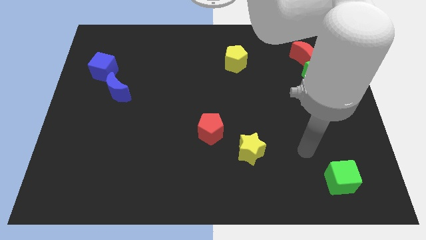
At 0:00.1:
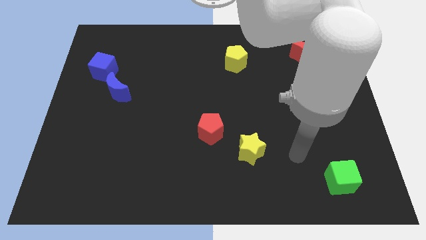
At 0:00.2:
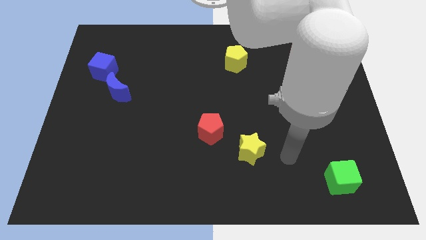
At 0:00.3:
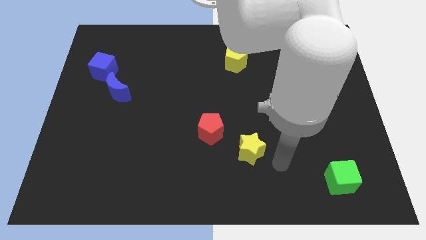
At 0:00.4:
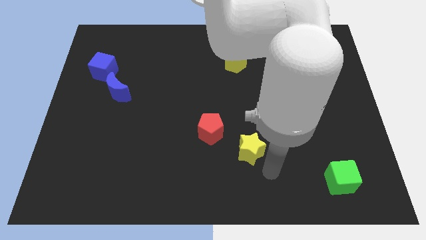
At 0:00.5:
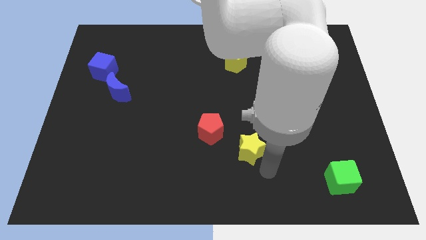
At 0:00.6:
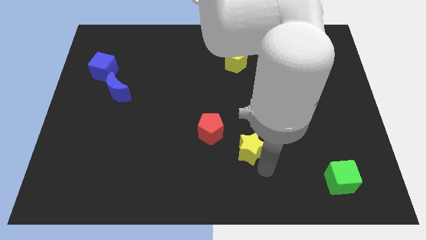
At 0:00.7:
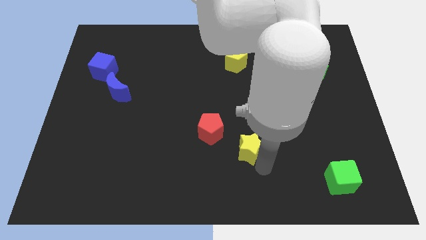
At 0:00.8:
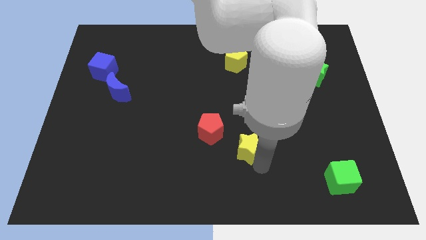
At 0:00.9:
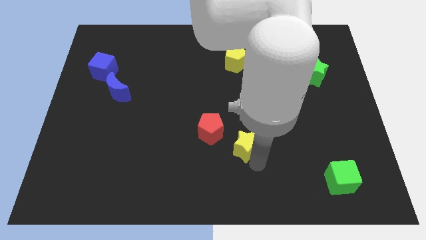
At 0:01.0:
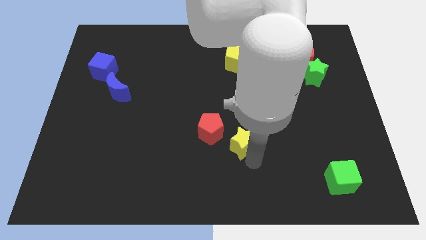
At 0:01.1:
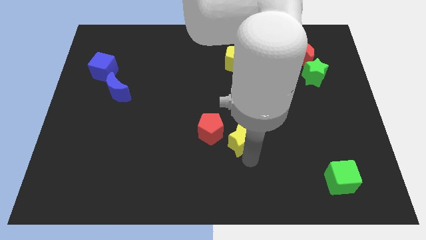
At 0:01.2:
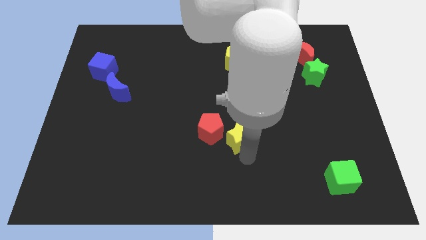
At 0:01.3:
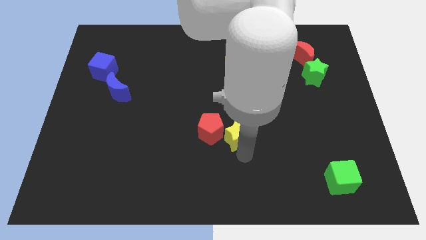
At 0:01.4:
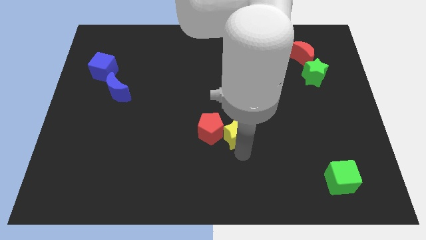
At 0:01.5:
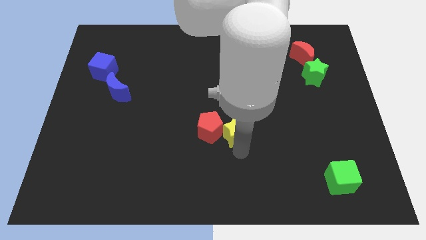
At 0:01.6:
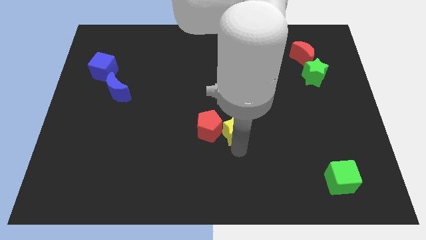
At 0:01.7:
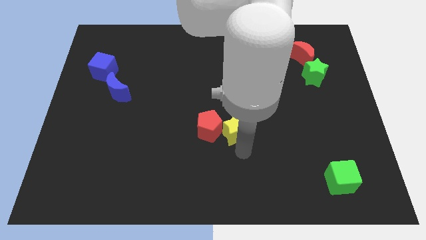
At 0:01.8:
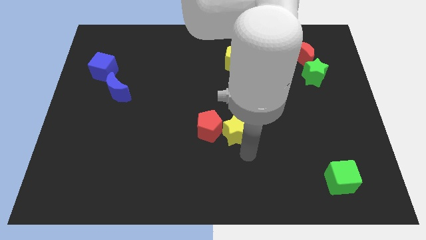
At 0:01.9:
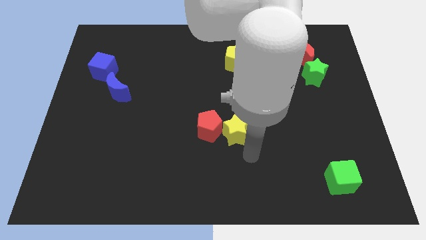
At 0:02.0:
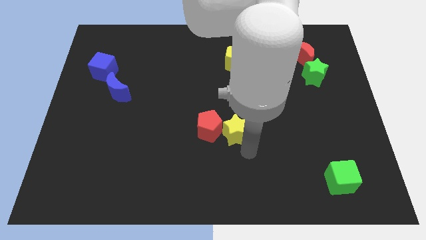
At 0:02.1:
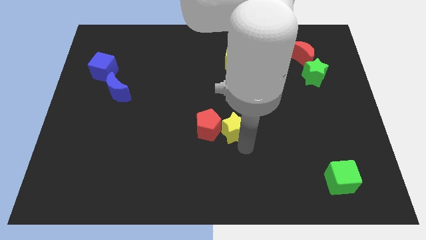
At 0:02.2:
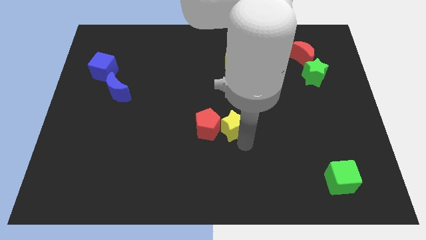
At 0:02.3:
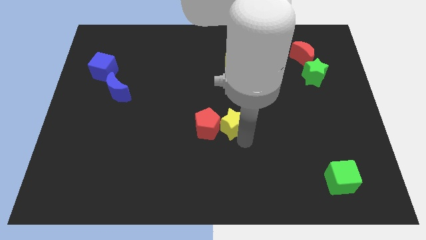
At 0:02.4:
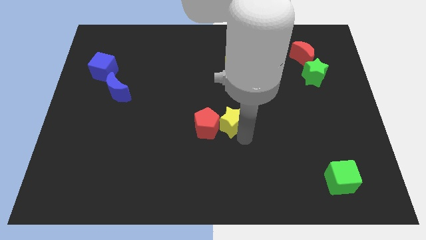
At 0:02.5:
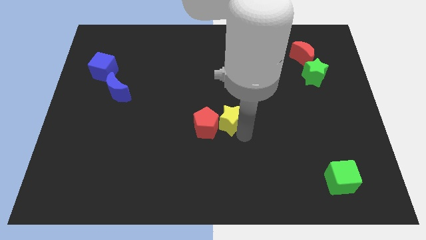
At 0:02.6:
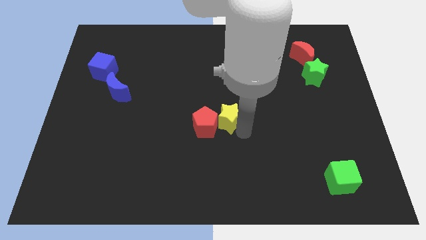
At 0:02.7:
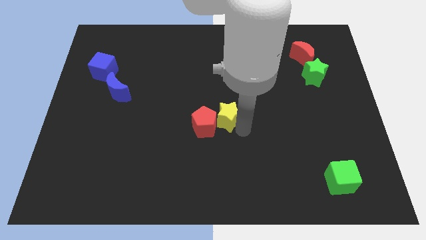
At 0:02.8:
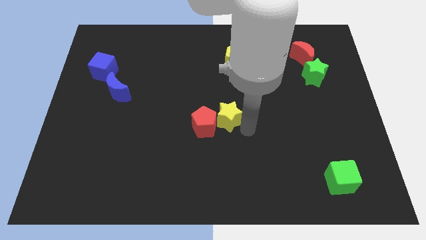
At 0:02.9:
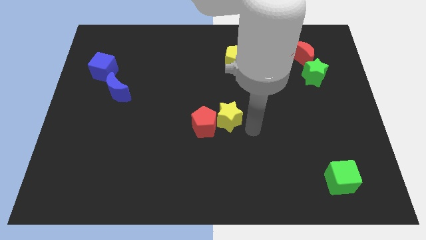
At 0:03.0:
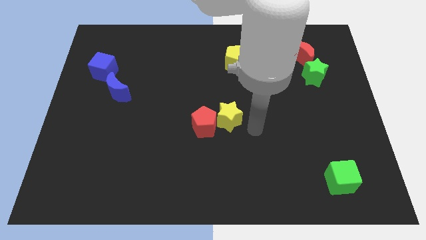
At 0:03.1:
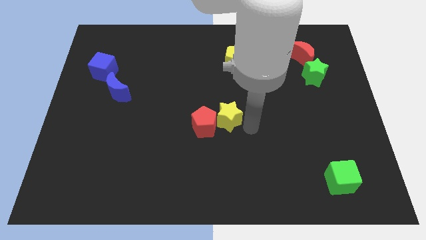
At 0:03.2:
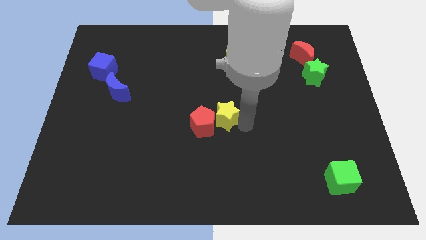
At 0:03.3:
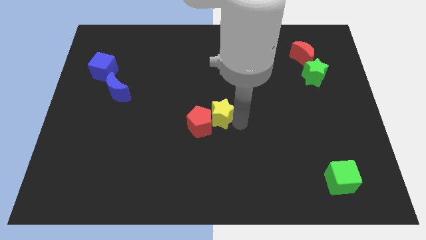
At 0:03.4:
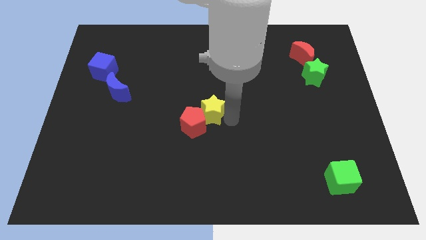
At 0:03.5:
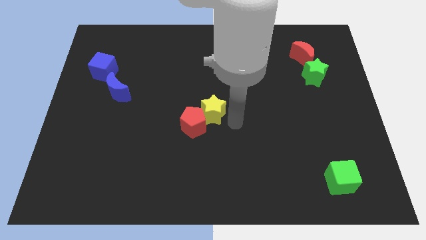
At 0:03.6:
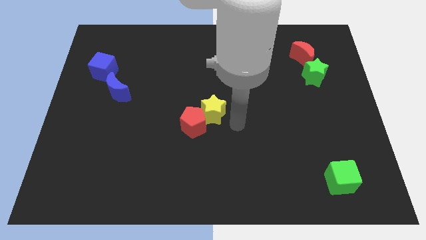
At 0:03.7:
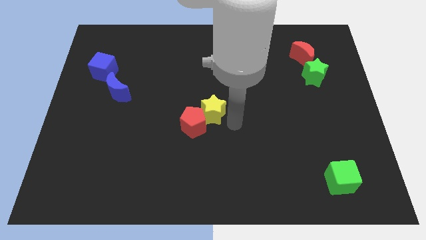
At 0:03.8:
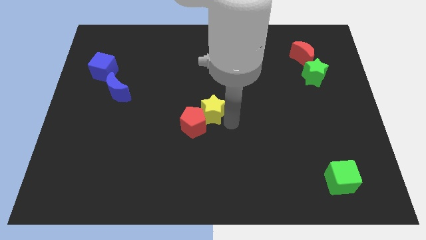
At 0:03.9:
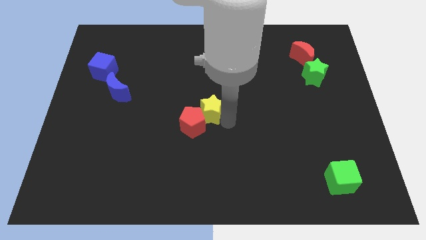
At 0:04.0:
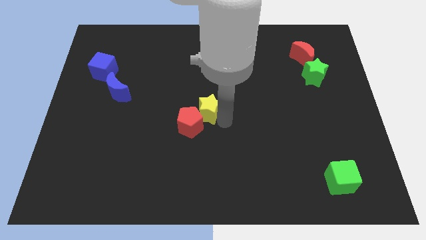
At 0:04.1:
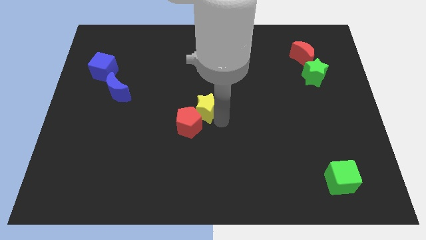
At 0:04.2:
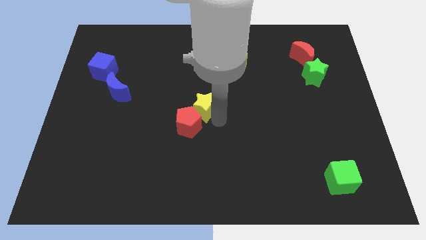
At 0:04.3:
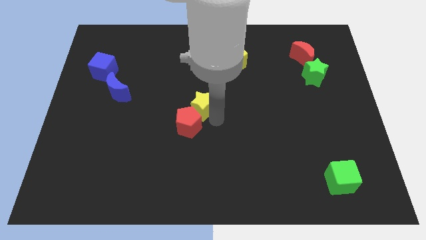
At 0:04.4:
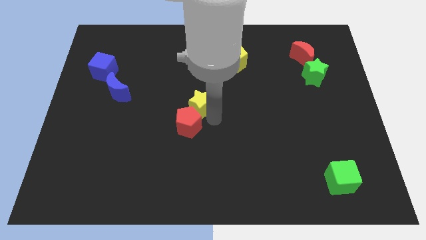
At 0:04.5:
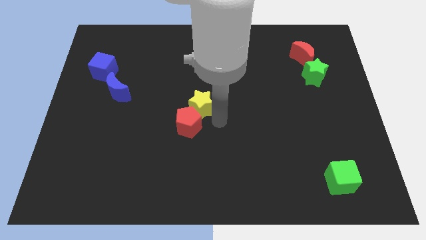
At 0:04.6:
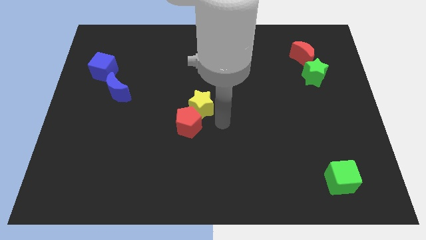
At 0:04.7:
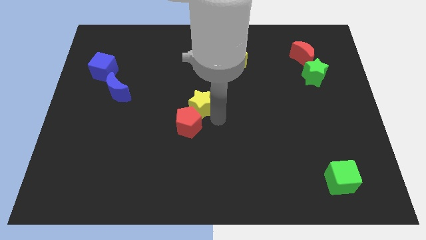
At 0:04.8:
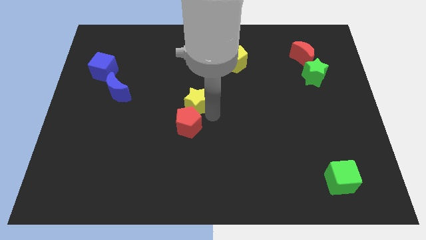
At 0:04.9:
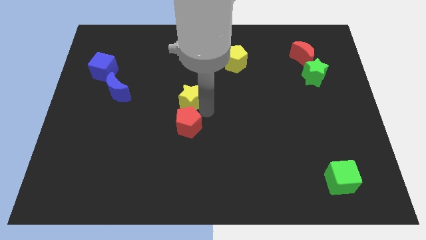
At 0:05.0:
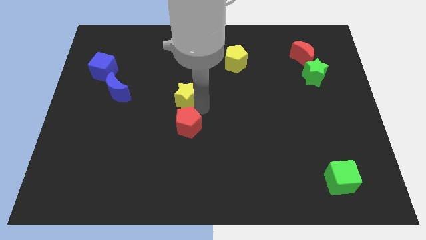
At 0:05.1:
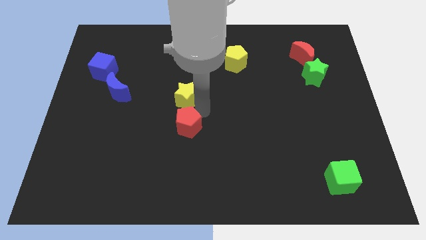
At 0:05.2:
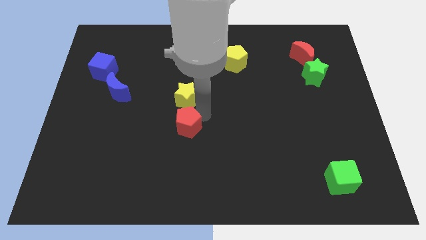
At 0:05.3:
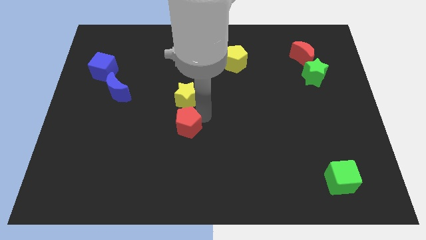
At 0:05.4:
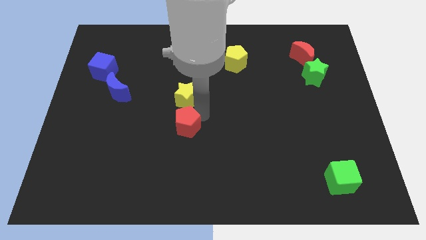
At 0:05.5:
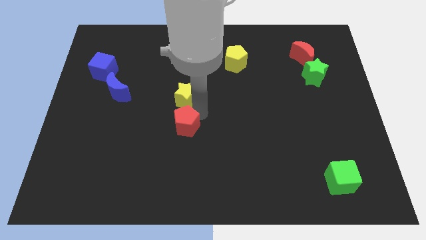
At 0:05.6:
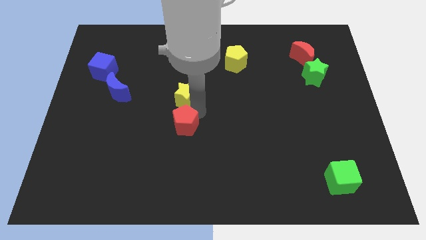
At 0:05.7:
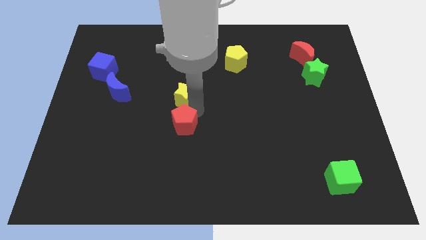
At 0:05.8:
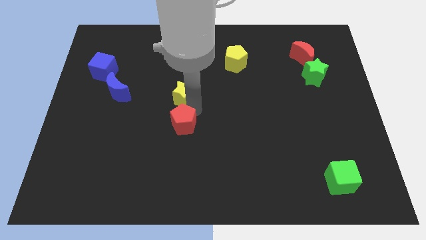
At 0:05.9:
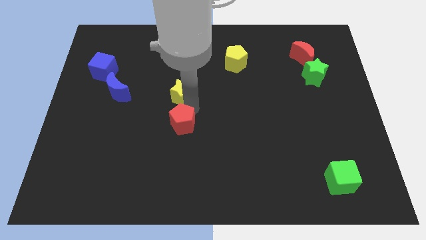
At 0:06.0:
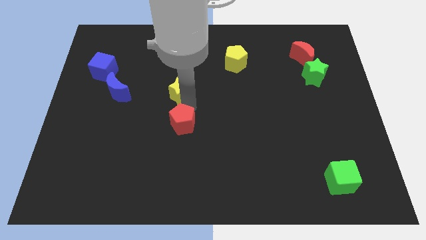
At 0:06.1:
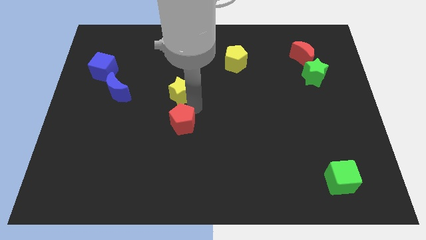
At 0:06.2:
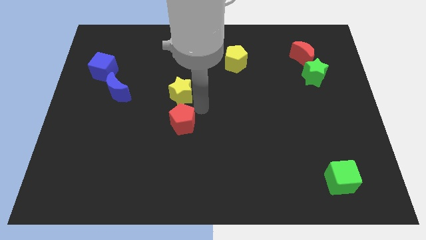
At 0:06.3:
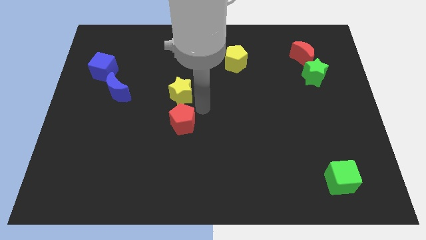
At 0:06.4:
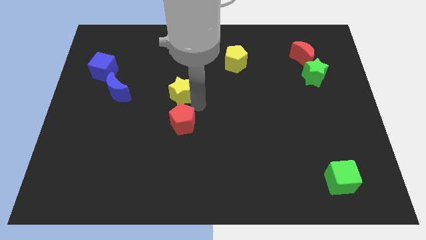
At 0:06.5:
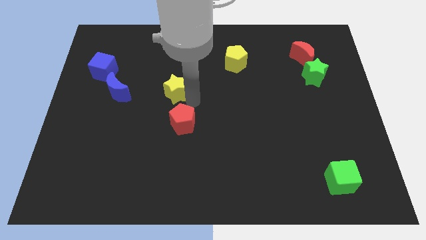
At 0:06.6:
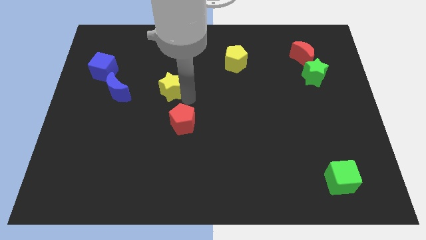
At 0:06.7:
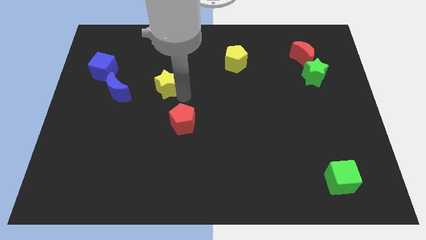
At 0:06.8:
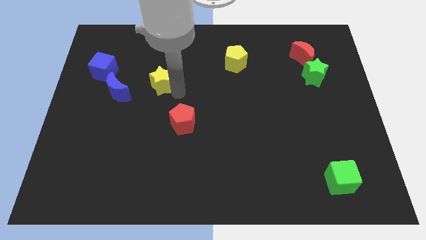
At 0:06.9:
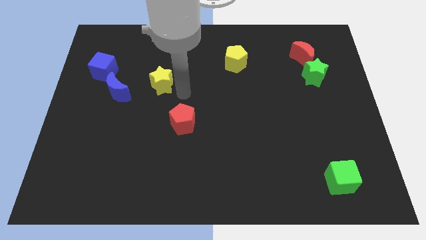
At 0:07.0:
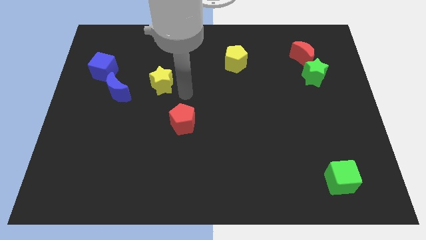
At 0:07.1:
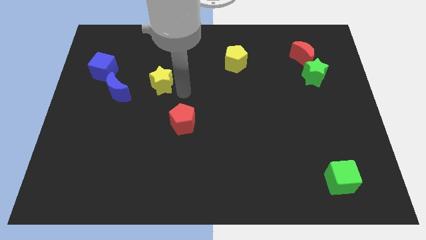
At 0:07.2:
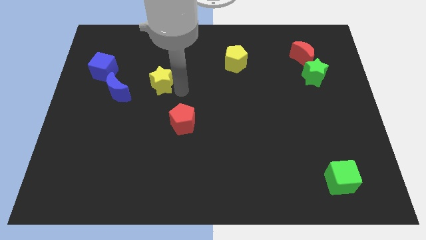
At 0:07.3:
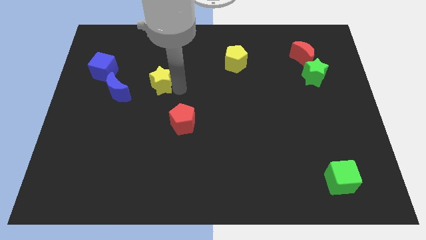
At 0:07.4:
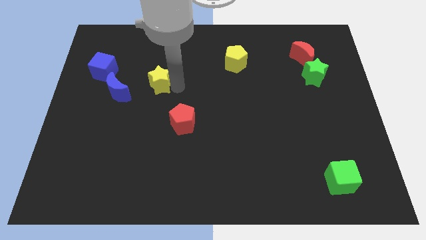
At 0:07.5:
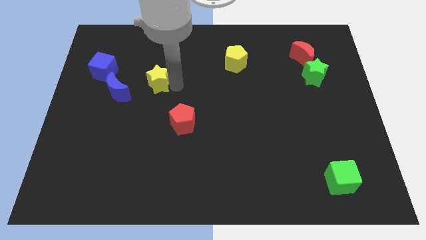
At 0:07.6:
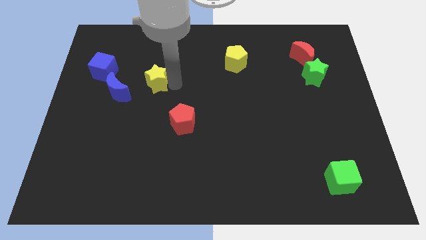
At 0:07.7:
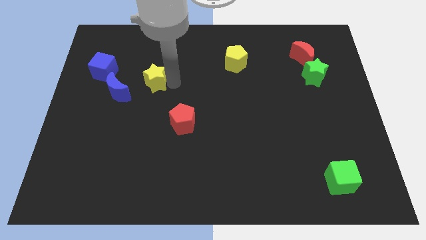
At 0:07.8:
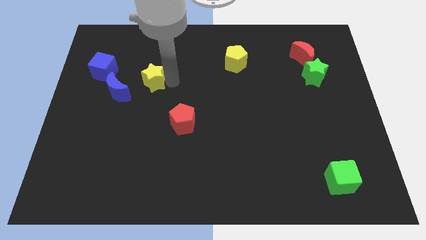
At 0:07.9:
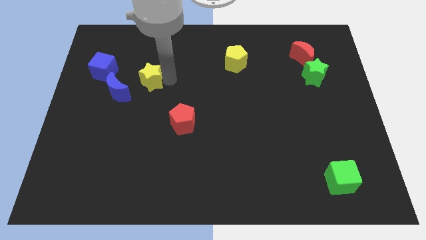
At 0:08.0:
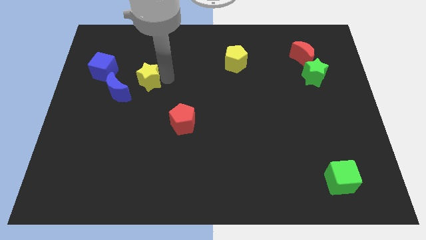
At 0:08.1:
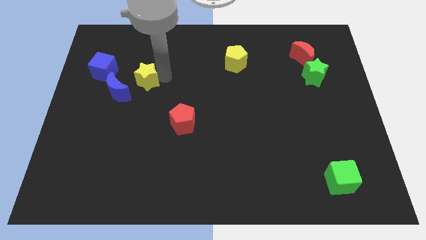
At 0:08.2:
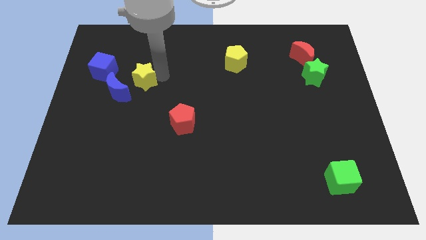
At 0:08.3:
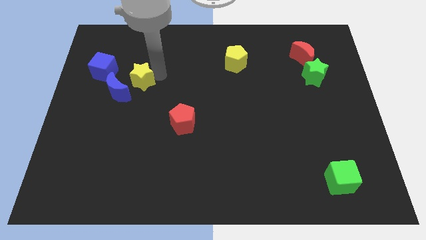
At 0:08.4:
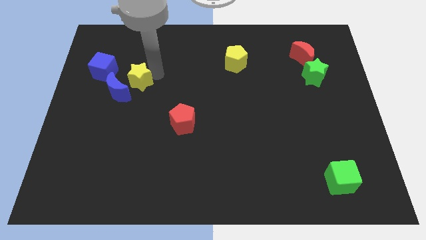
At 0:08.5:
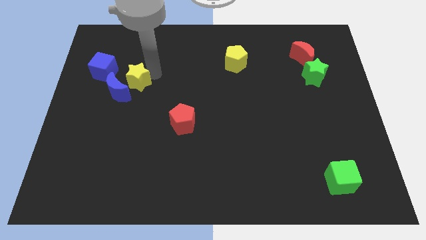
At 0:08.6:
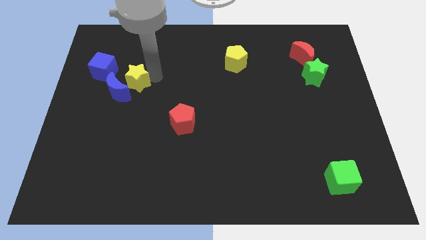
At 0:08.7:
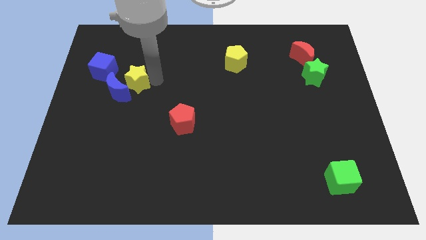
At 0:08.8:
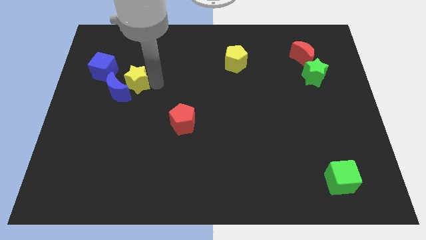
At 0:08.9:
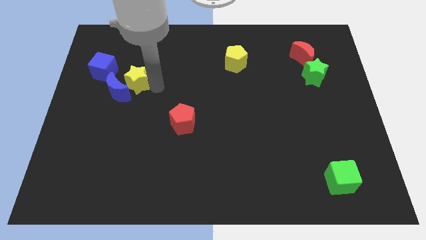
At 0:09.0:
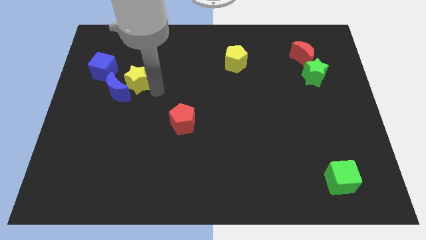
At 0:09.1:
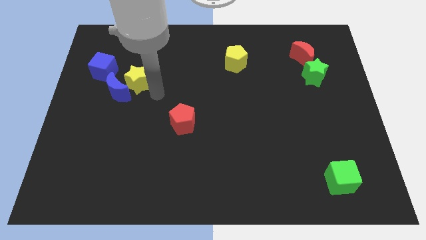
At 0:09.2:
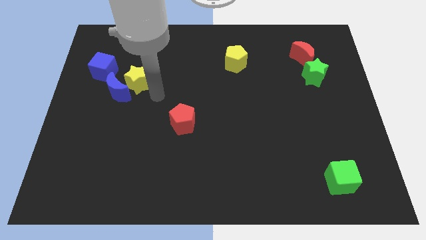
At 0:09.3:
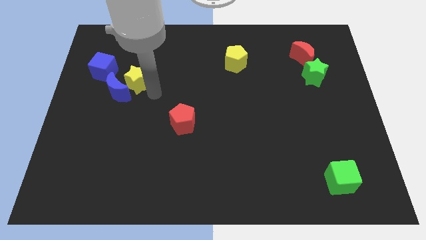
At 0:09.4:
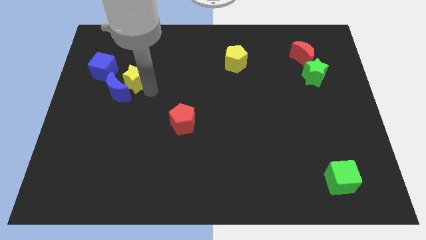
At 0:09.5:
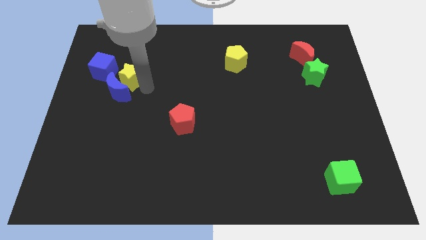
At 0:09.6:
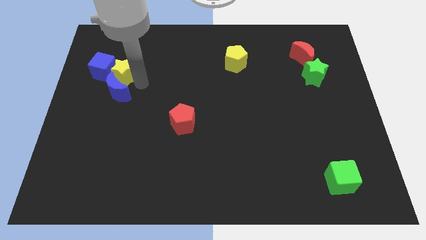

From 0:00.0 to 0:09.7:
push the yellow star to the blue cube
